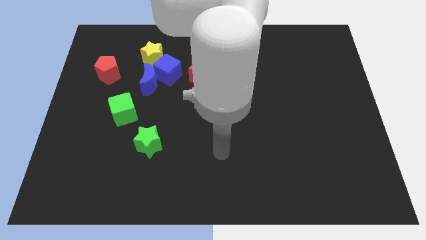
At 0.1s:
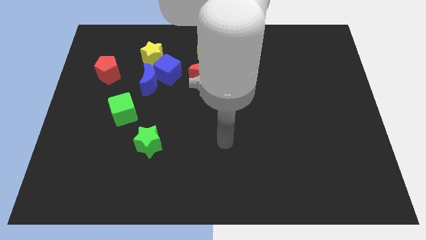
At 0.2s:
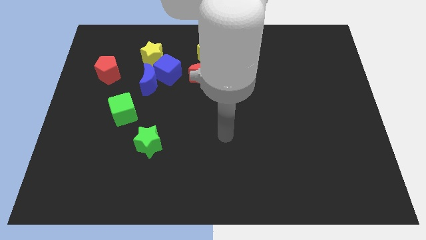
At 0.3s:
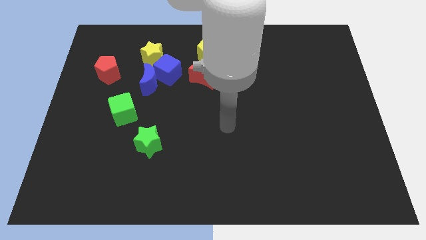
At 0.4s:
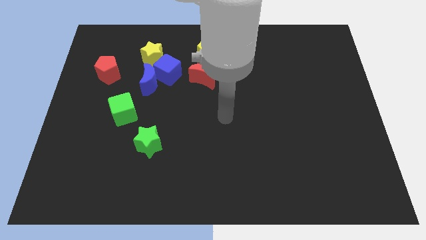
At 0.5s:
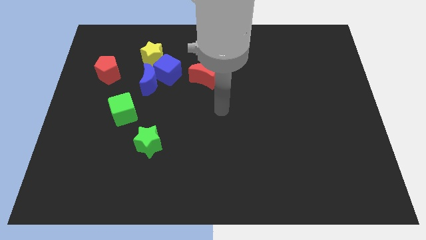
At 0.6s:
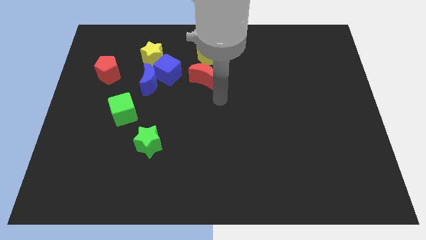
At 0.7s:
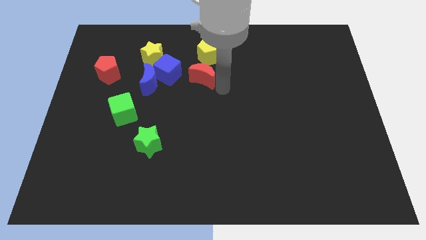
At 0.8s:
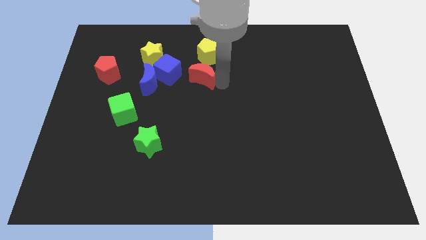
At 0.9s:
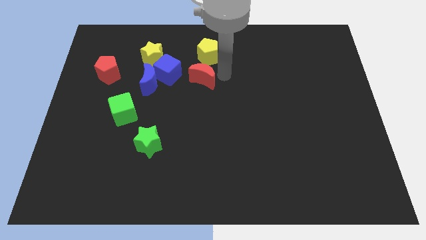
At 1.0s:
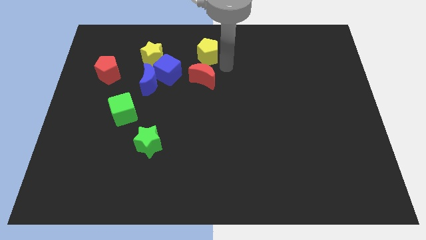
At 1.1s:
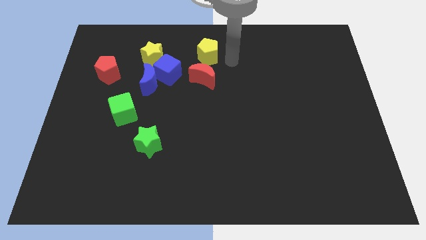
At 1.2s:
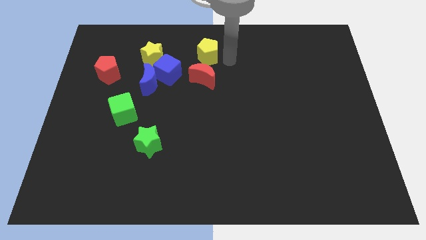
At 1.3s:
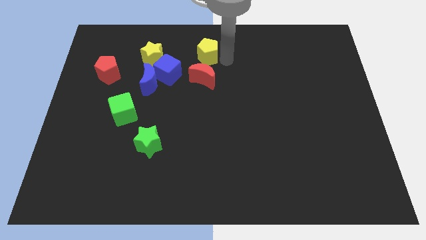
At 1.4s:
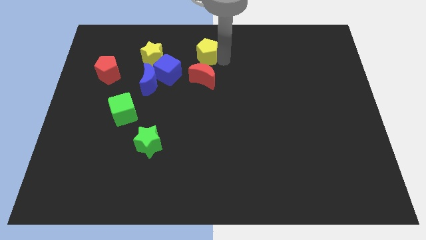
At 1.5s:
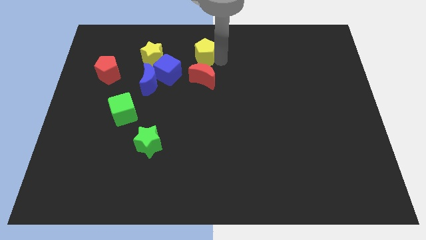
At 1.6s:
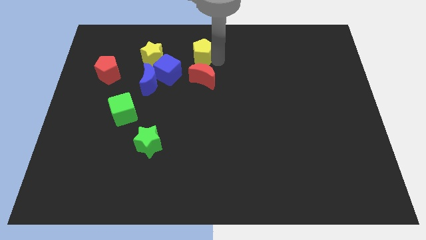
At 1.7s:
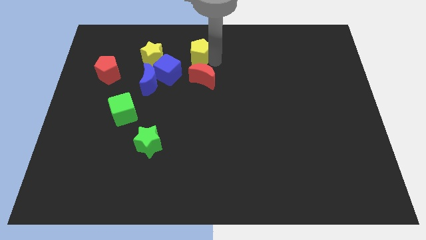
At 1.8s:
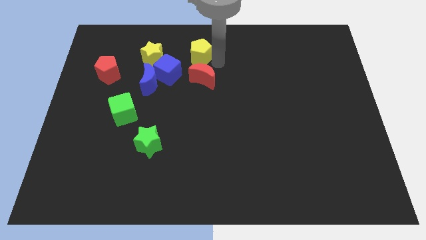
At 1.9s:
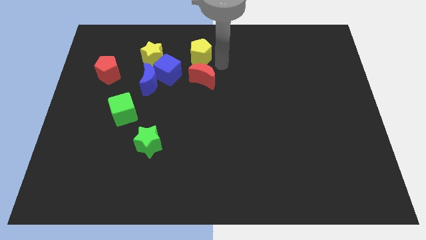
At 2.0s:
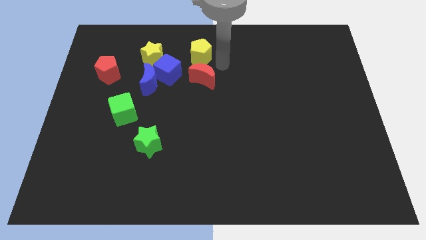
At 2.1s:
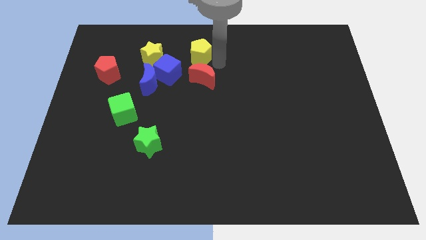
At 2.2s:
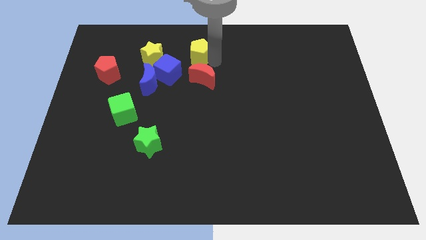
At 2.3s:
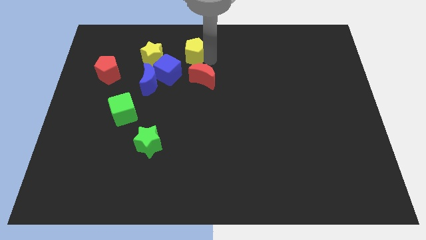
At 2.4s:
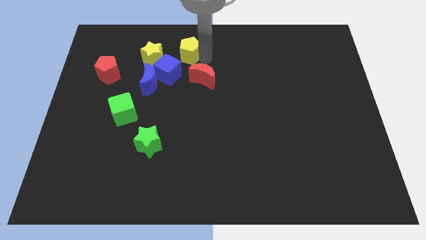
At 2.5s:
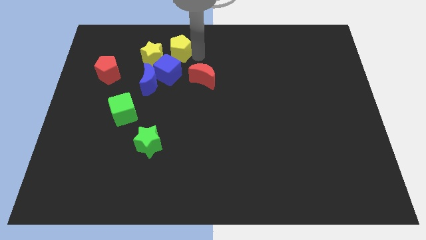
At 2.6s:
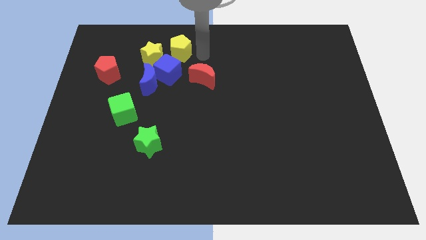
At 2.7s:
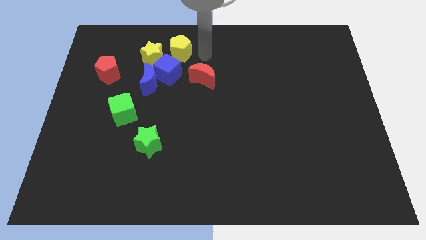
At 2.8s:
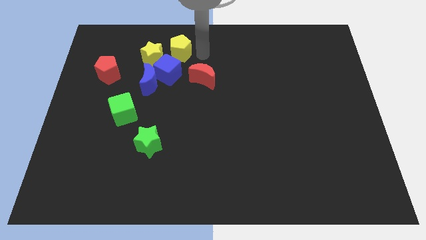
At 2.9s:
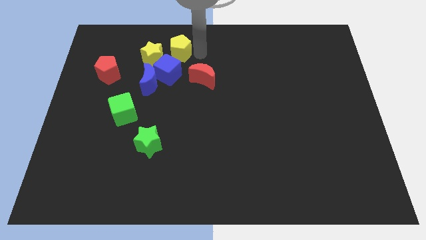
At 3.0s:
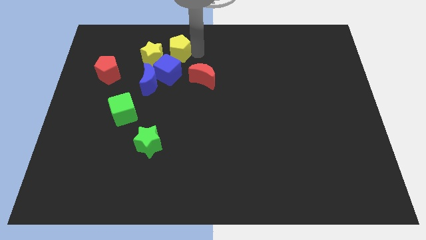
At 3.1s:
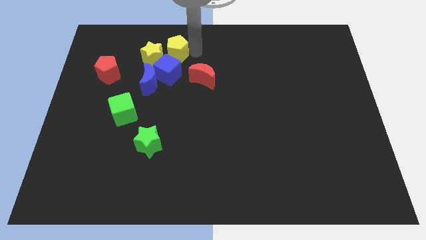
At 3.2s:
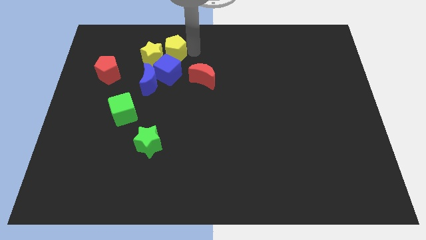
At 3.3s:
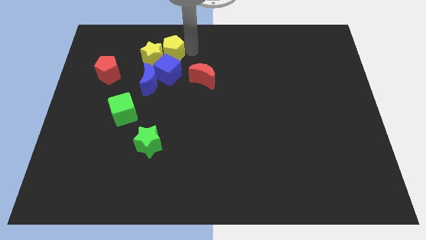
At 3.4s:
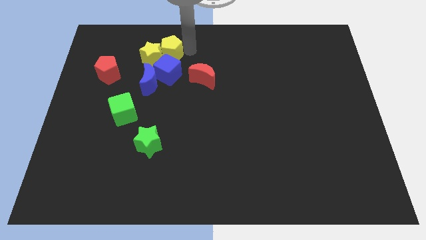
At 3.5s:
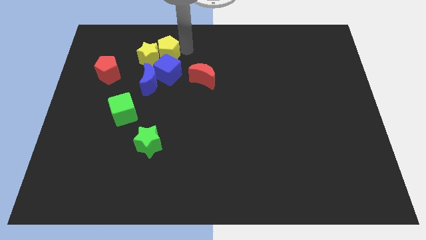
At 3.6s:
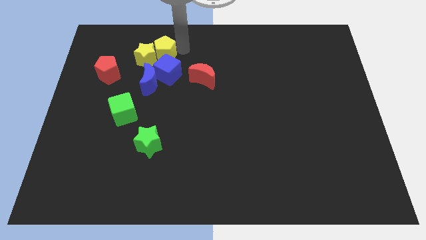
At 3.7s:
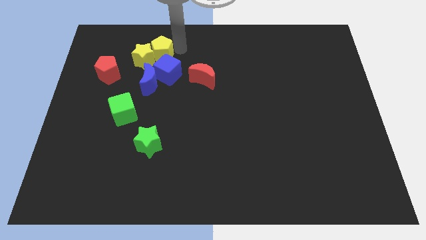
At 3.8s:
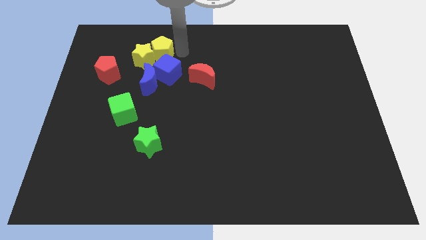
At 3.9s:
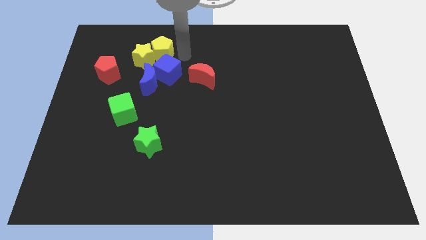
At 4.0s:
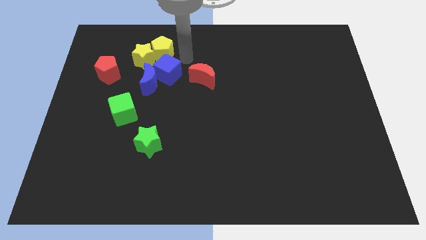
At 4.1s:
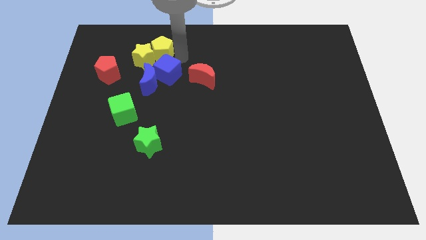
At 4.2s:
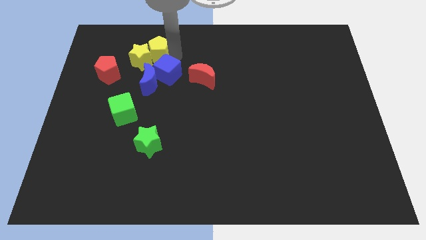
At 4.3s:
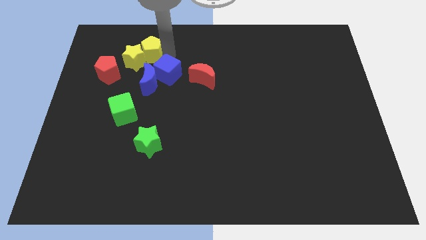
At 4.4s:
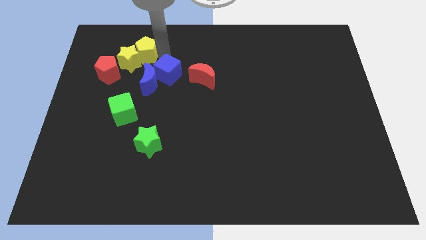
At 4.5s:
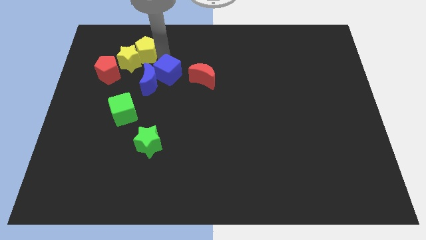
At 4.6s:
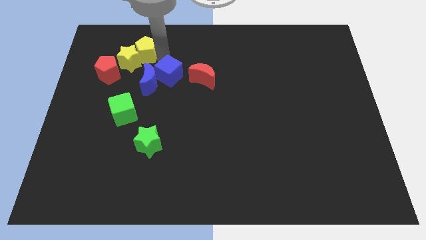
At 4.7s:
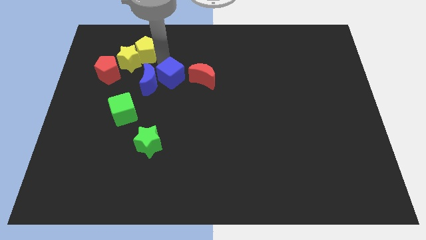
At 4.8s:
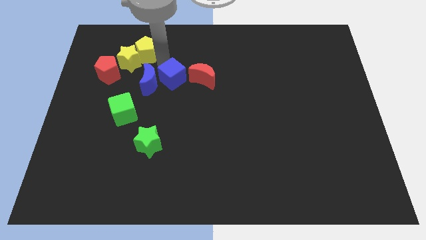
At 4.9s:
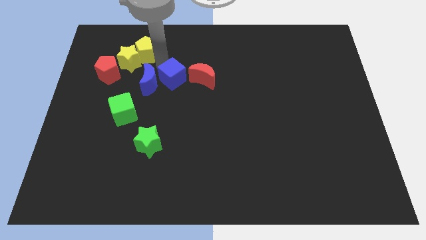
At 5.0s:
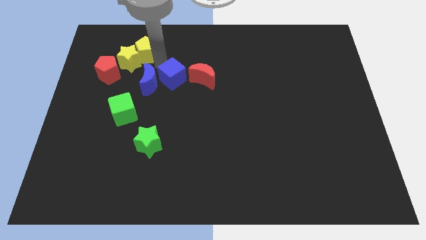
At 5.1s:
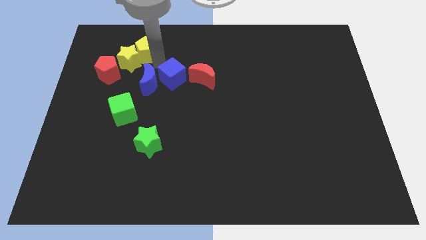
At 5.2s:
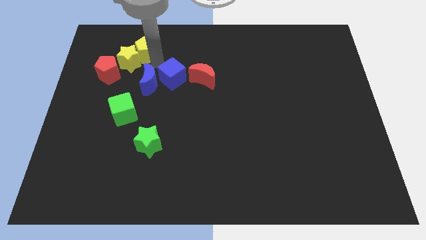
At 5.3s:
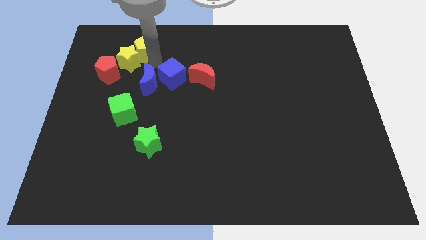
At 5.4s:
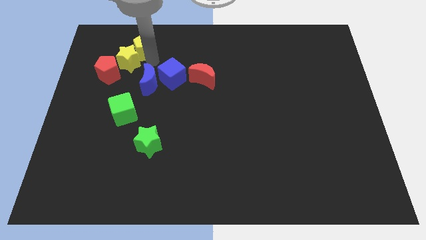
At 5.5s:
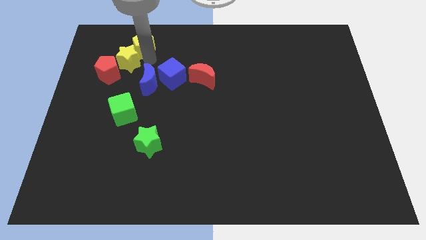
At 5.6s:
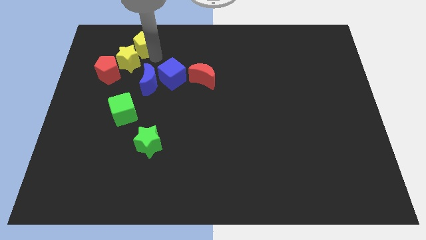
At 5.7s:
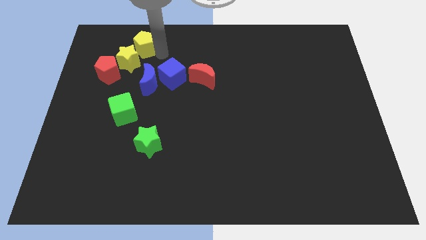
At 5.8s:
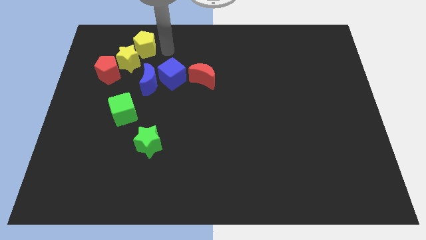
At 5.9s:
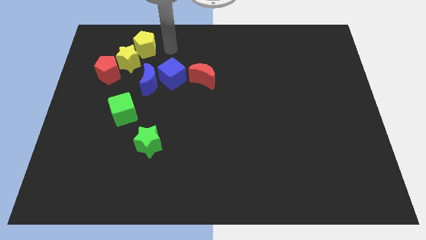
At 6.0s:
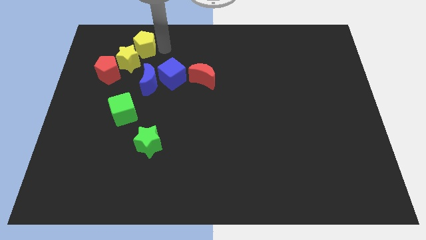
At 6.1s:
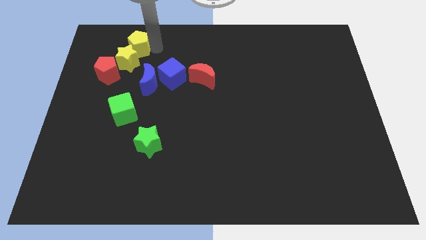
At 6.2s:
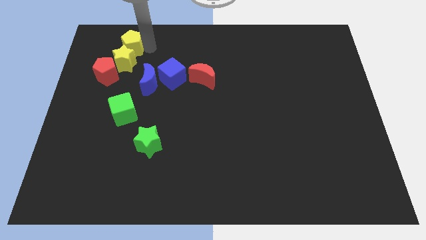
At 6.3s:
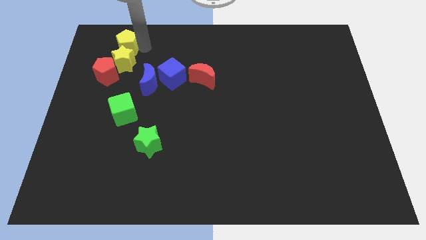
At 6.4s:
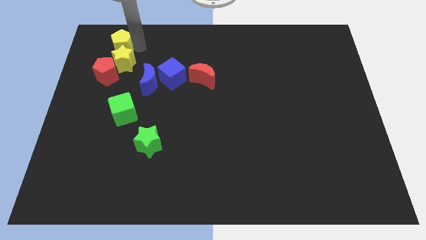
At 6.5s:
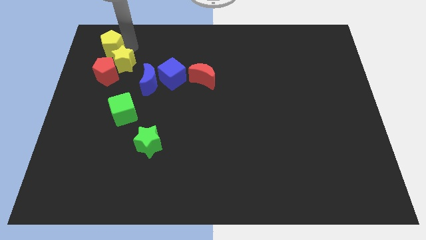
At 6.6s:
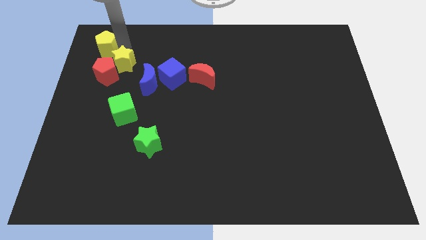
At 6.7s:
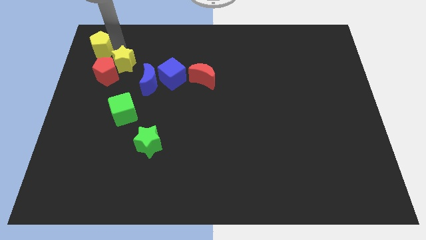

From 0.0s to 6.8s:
put the yellow pentagon to the top left corner
